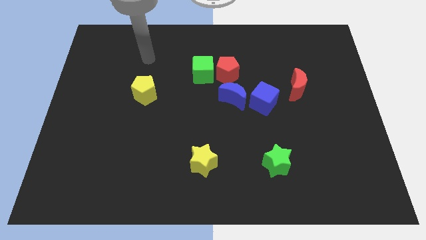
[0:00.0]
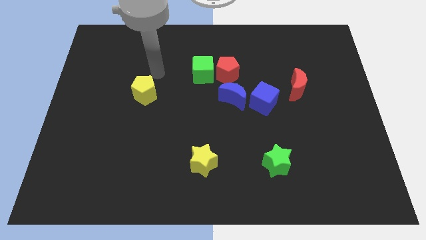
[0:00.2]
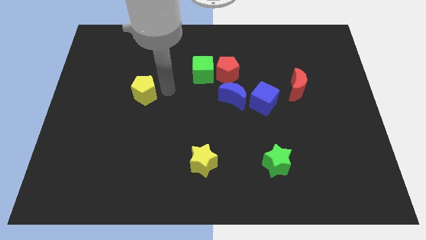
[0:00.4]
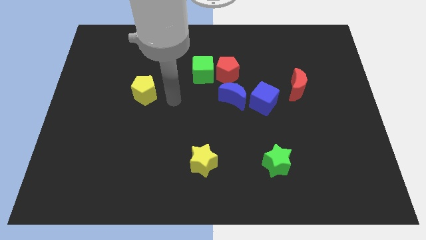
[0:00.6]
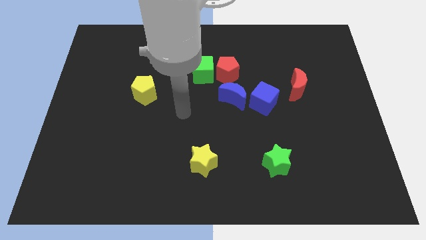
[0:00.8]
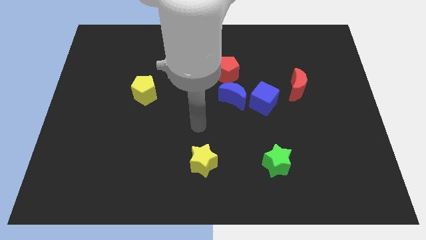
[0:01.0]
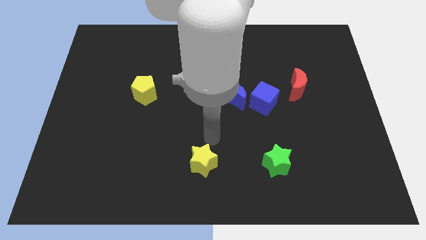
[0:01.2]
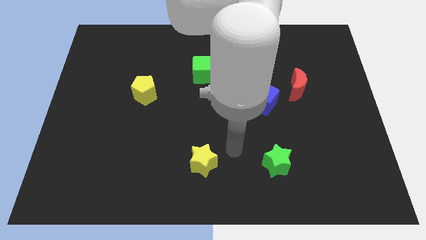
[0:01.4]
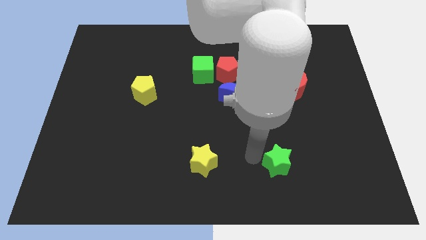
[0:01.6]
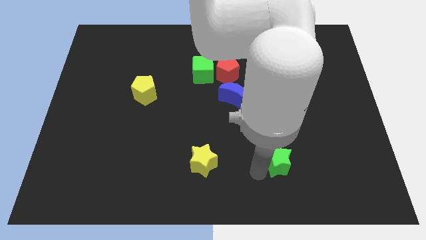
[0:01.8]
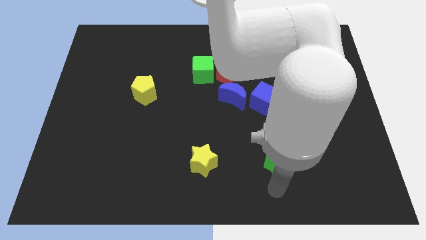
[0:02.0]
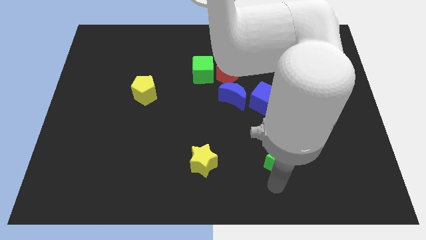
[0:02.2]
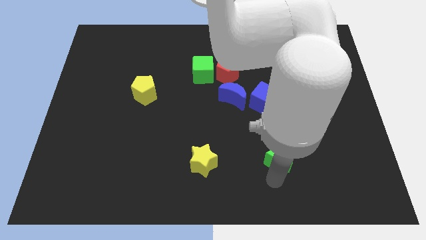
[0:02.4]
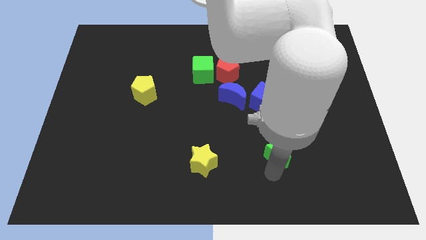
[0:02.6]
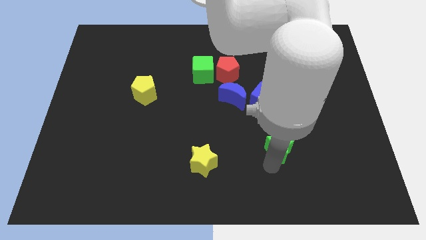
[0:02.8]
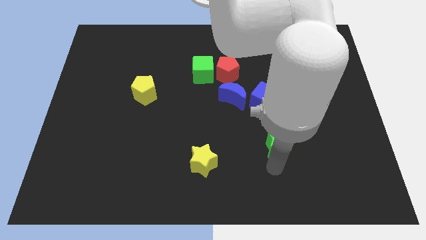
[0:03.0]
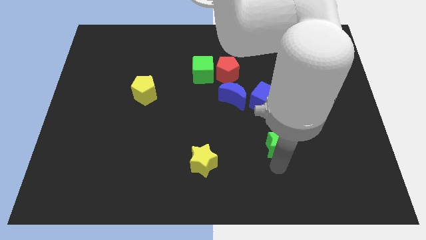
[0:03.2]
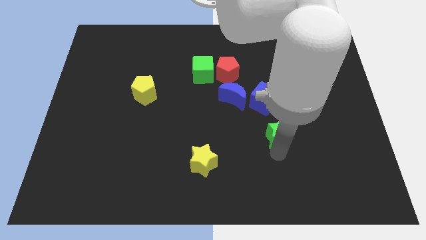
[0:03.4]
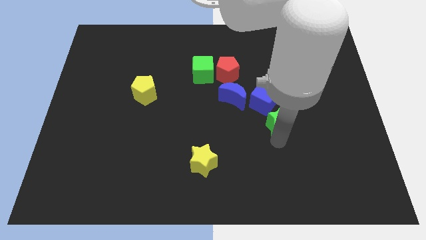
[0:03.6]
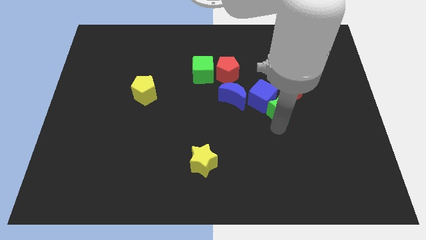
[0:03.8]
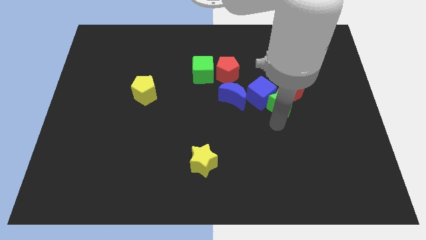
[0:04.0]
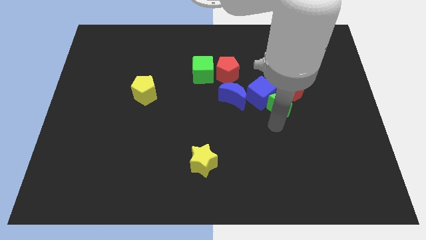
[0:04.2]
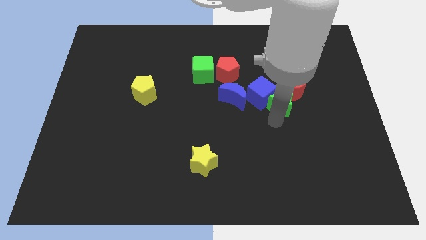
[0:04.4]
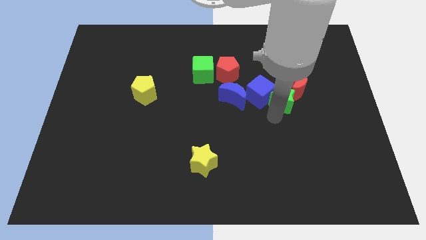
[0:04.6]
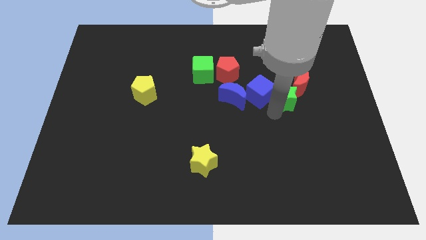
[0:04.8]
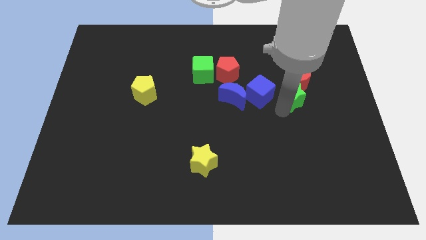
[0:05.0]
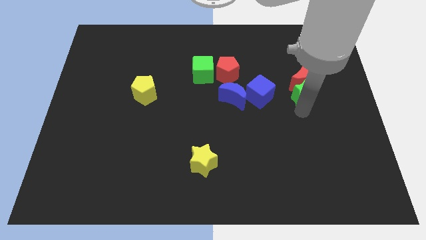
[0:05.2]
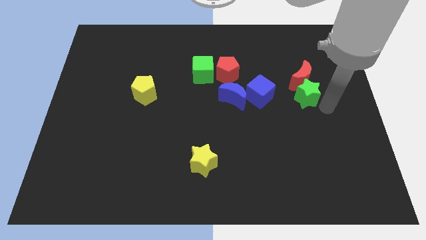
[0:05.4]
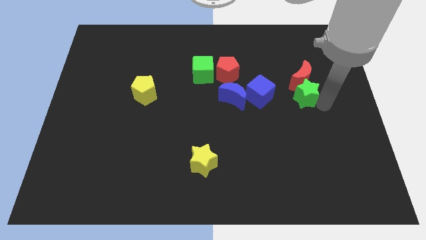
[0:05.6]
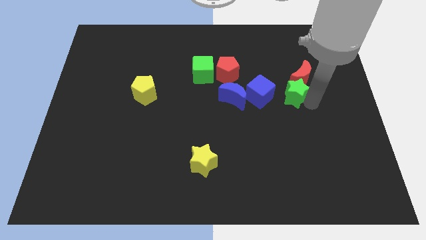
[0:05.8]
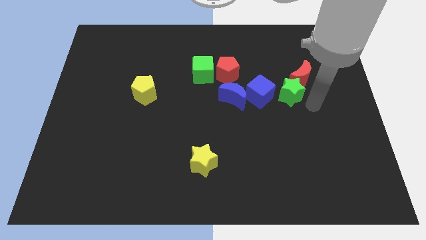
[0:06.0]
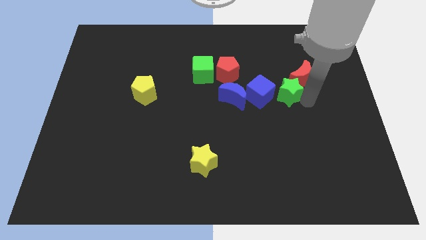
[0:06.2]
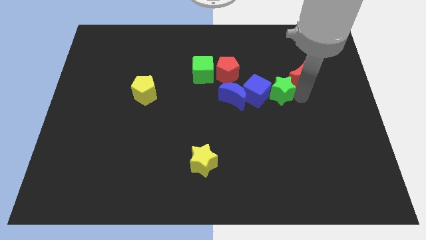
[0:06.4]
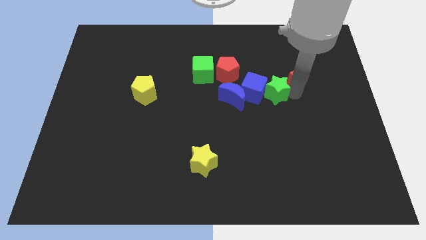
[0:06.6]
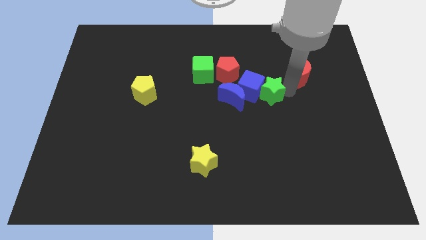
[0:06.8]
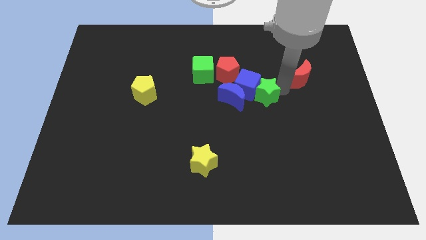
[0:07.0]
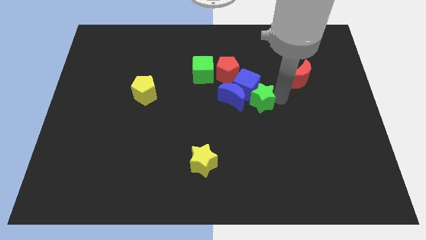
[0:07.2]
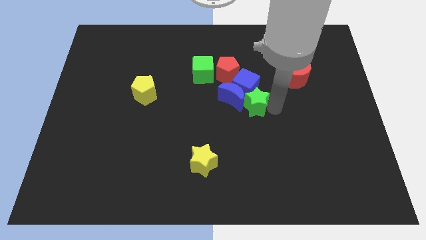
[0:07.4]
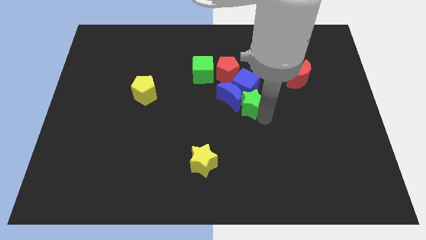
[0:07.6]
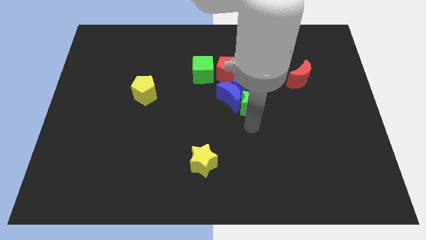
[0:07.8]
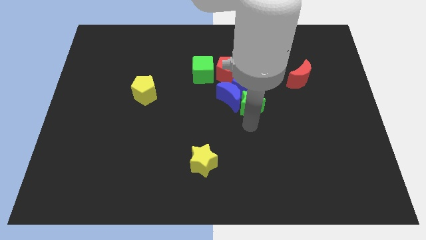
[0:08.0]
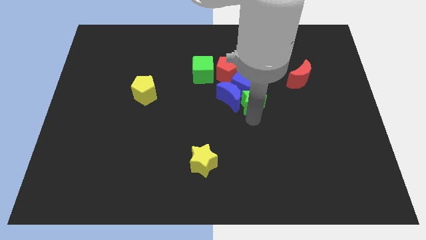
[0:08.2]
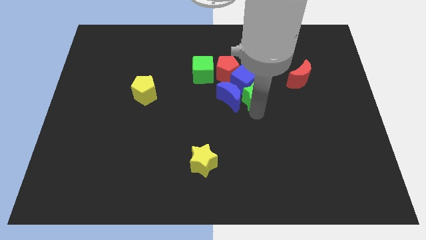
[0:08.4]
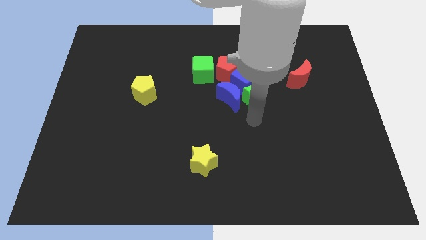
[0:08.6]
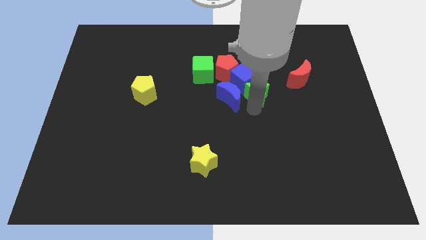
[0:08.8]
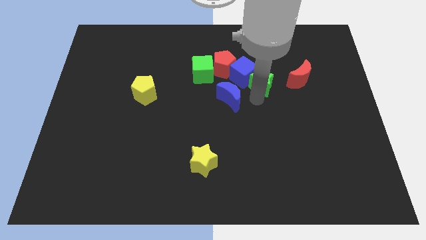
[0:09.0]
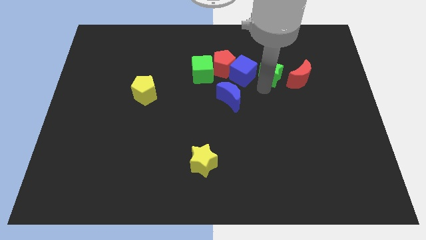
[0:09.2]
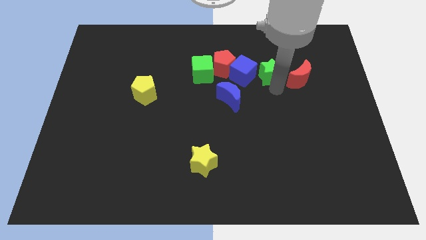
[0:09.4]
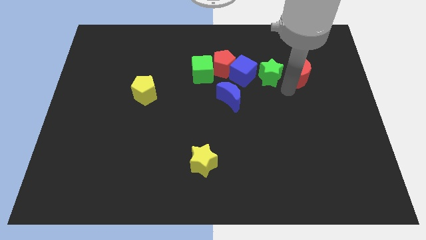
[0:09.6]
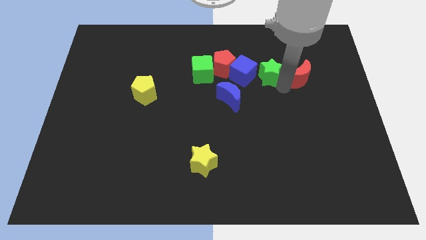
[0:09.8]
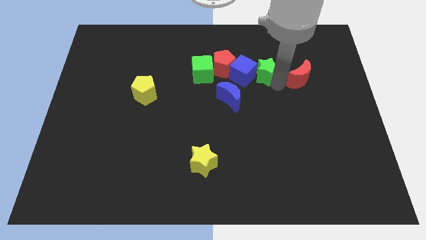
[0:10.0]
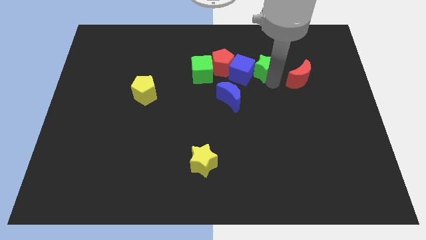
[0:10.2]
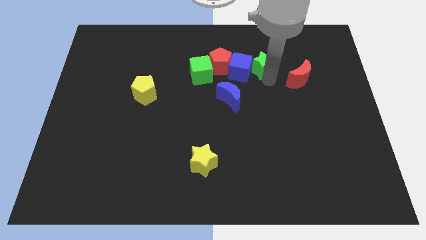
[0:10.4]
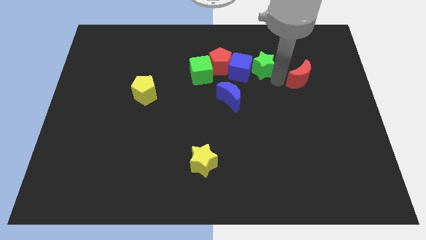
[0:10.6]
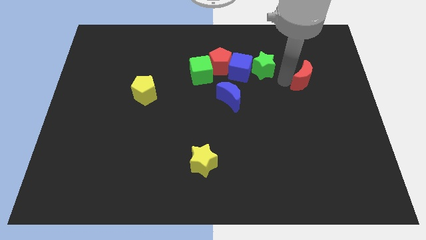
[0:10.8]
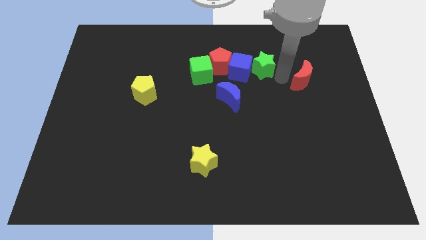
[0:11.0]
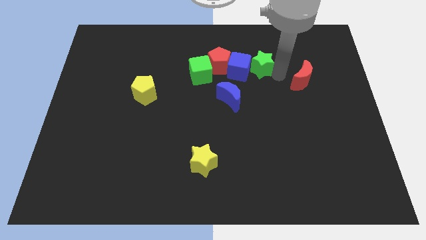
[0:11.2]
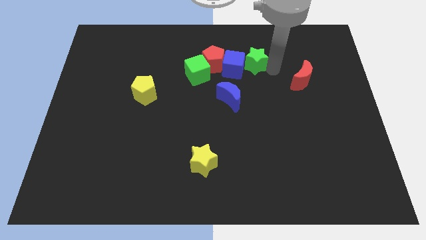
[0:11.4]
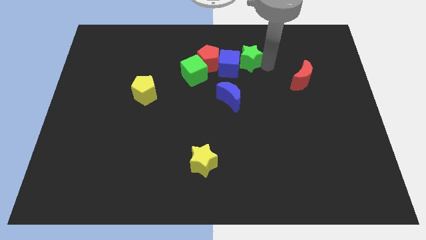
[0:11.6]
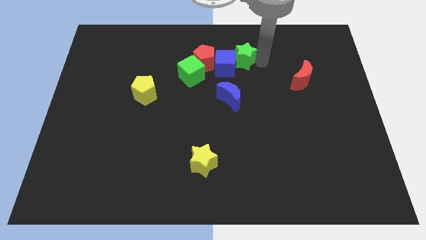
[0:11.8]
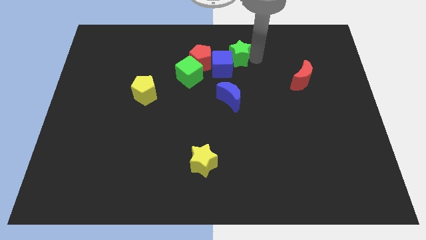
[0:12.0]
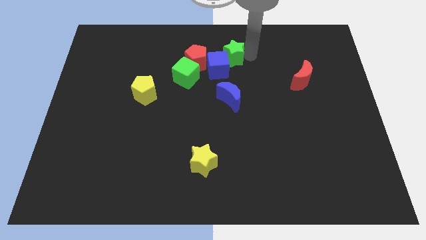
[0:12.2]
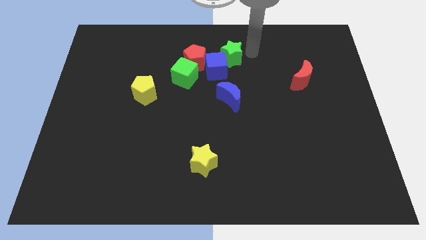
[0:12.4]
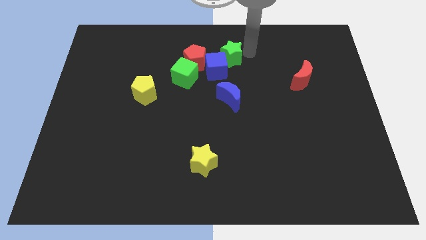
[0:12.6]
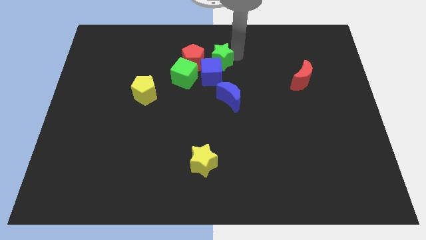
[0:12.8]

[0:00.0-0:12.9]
put the green star to the top right side of the green cube

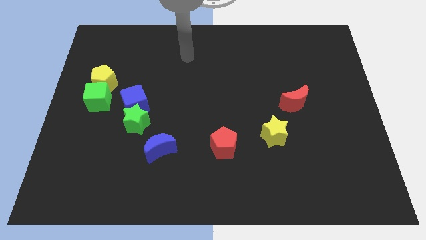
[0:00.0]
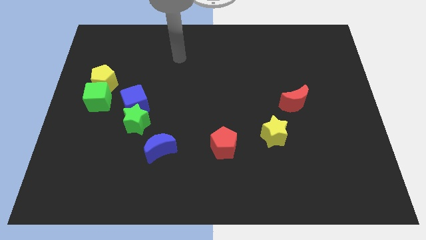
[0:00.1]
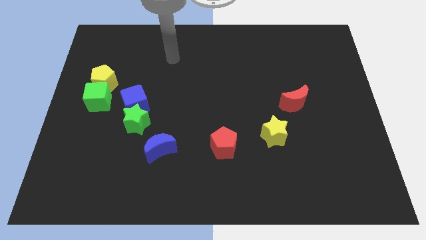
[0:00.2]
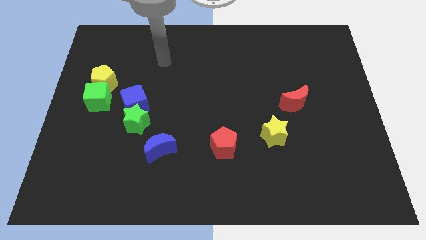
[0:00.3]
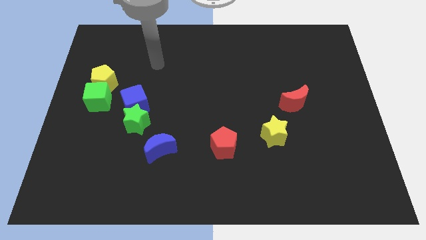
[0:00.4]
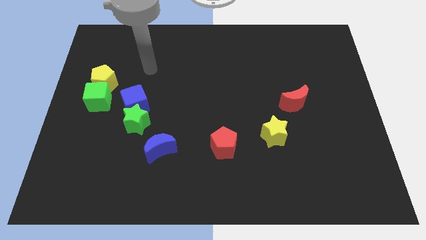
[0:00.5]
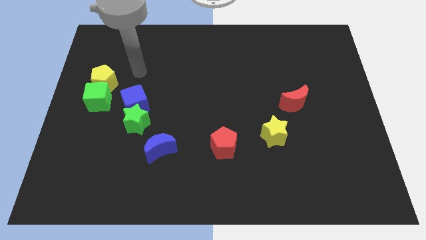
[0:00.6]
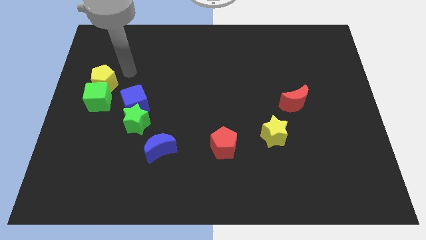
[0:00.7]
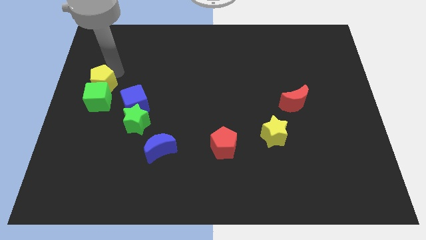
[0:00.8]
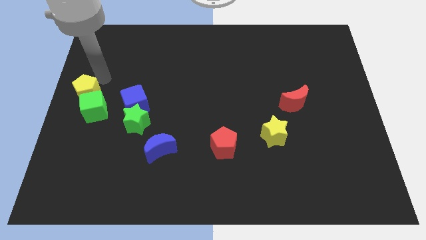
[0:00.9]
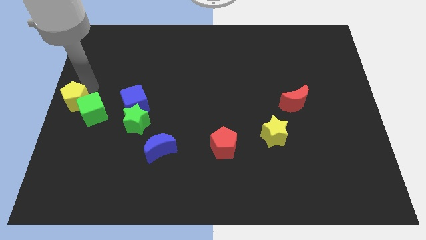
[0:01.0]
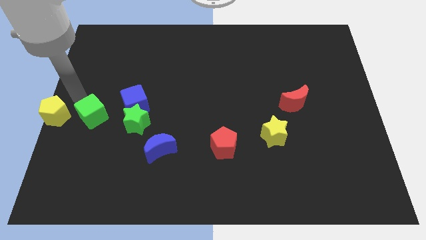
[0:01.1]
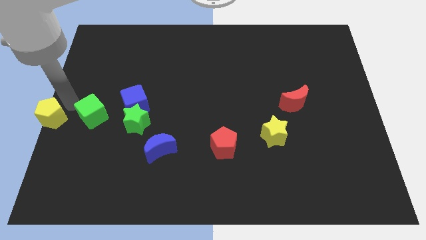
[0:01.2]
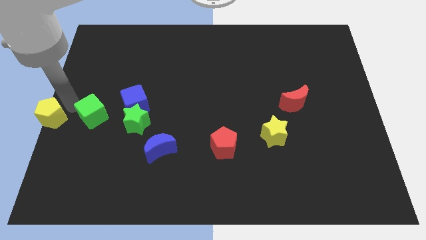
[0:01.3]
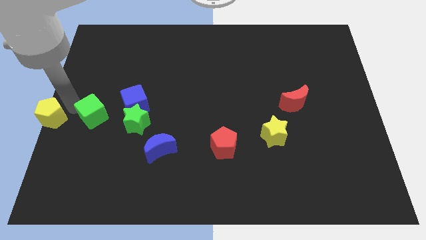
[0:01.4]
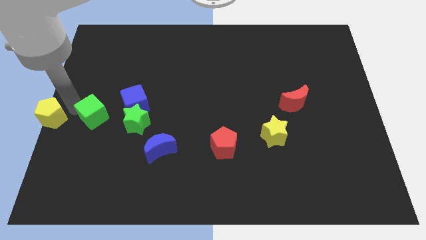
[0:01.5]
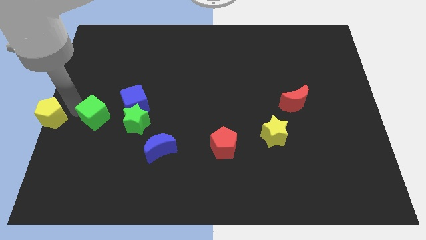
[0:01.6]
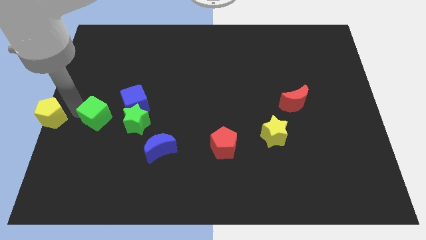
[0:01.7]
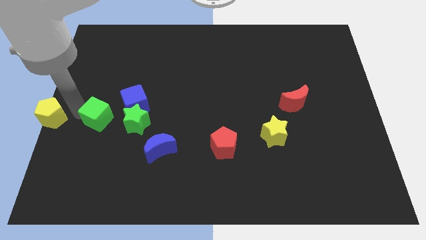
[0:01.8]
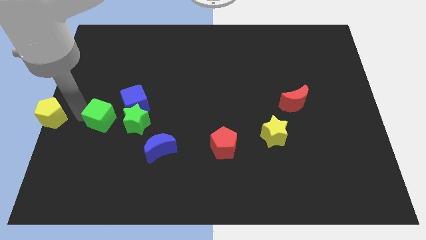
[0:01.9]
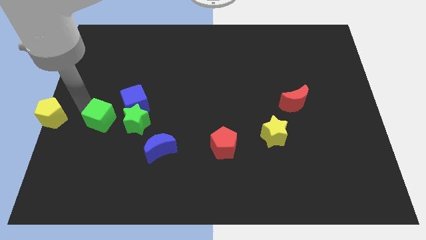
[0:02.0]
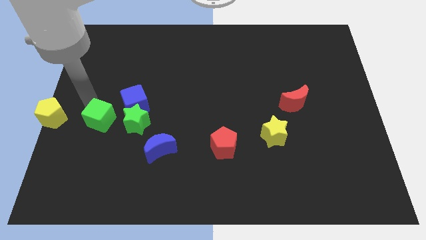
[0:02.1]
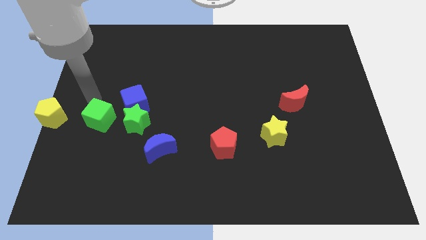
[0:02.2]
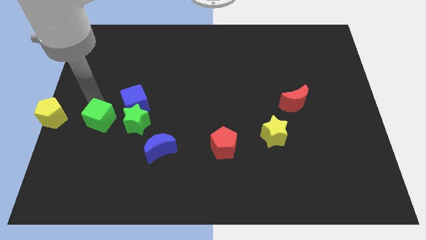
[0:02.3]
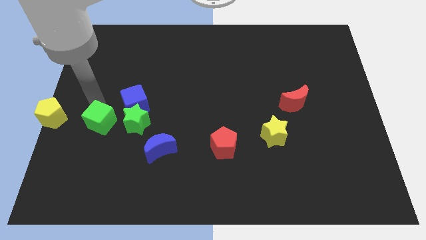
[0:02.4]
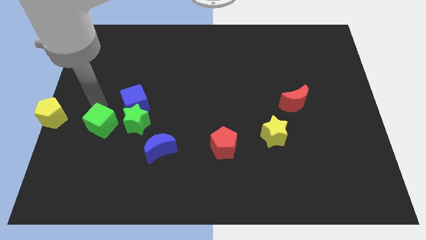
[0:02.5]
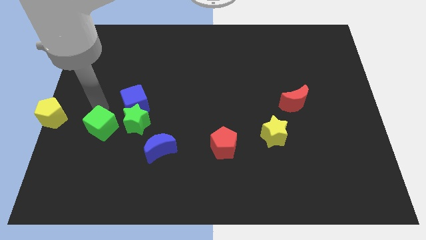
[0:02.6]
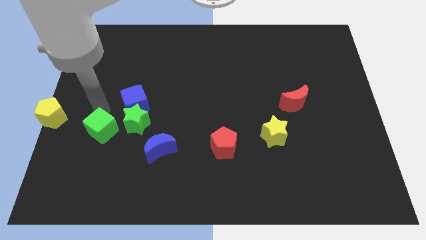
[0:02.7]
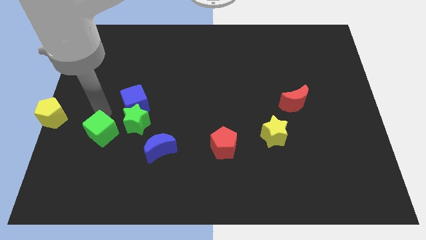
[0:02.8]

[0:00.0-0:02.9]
put the green cube to the left side of the blue moon
